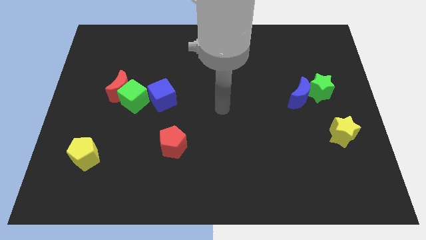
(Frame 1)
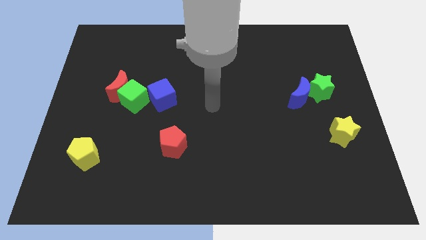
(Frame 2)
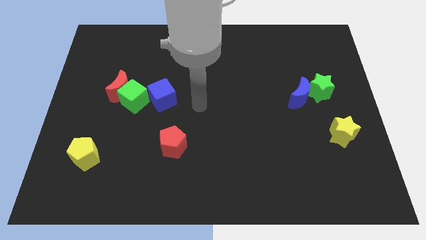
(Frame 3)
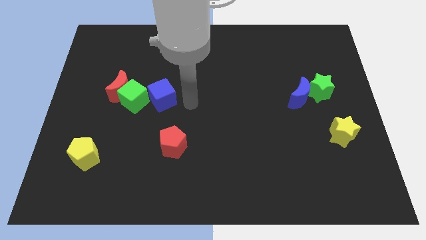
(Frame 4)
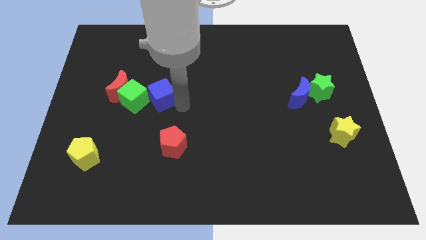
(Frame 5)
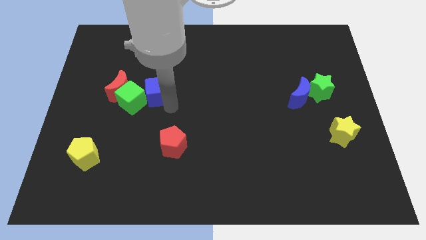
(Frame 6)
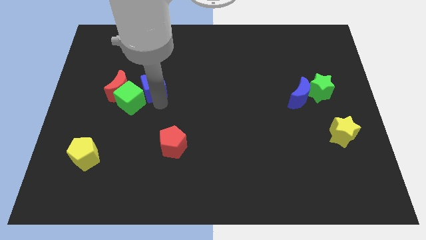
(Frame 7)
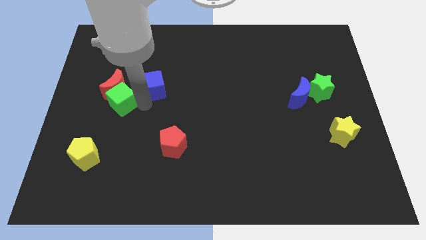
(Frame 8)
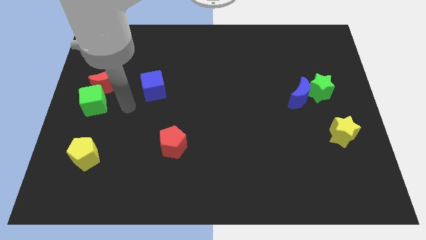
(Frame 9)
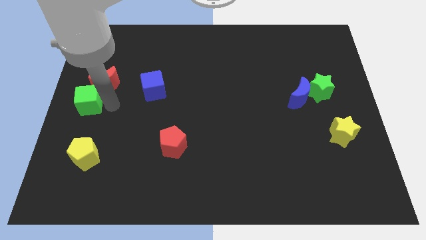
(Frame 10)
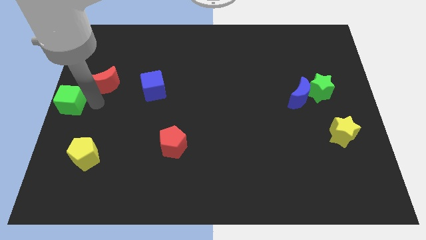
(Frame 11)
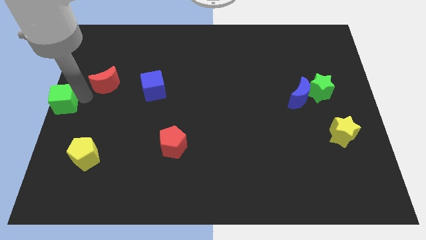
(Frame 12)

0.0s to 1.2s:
pull the red moon apart from the green cube

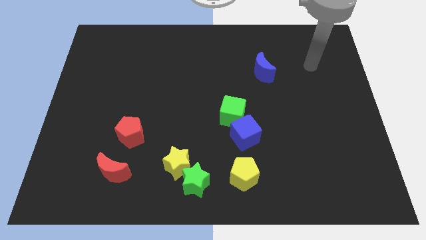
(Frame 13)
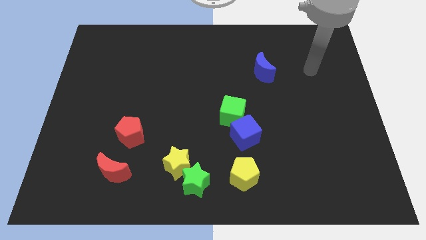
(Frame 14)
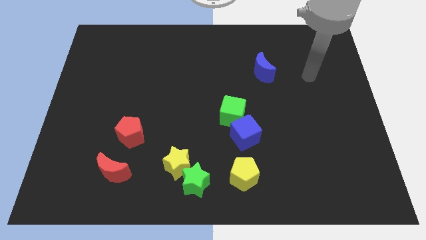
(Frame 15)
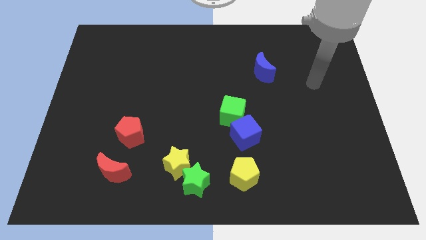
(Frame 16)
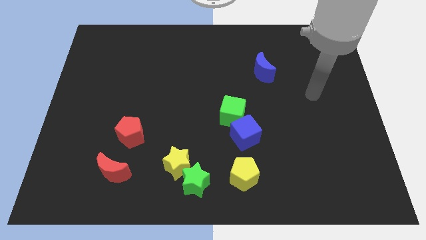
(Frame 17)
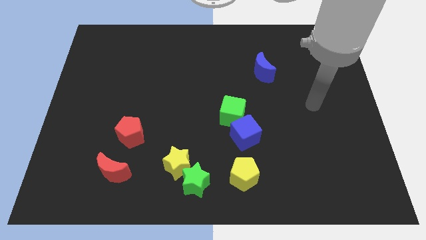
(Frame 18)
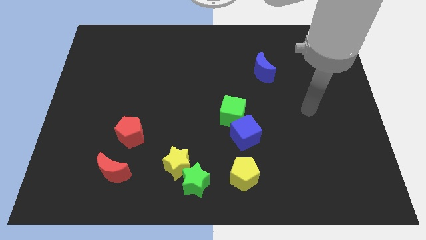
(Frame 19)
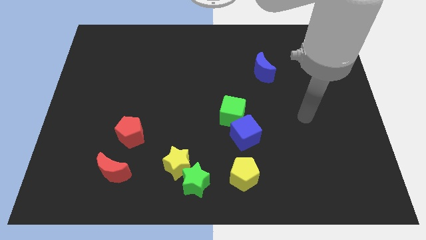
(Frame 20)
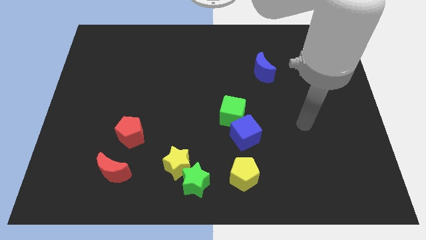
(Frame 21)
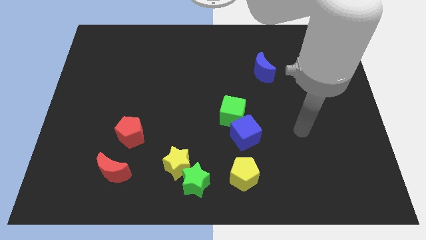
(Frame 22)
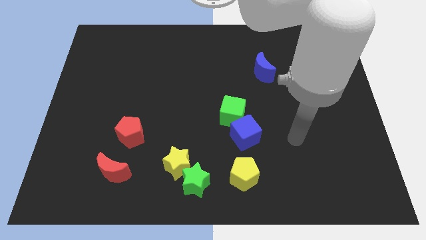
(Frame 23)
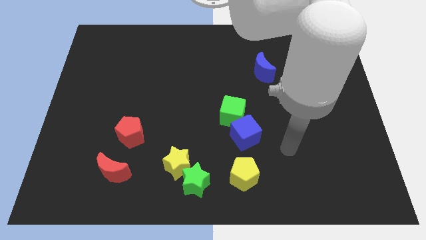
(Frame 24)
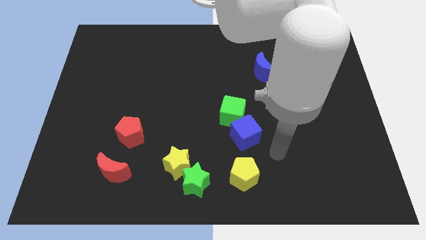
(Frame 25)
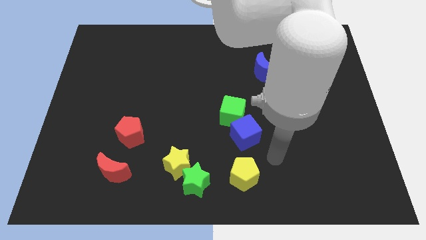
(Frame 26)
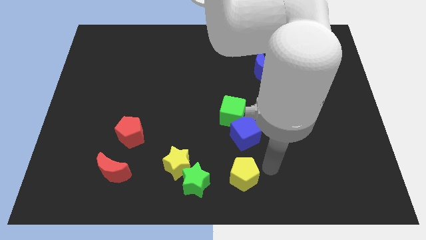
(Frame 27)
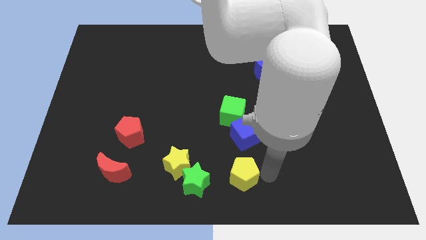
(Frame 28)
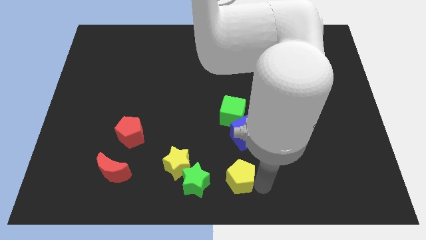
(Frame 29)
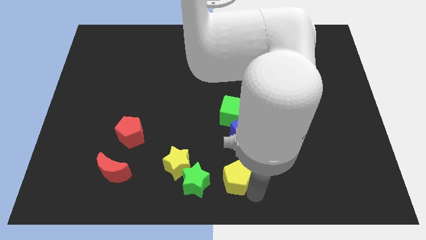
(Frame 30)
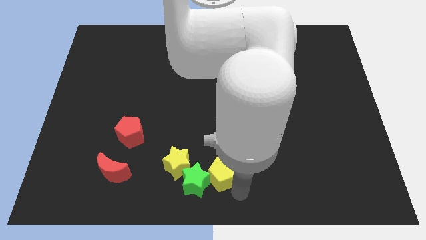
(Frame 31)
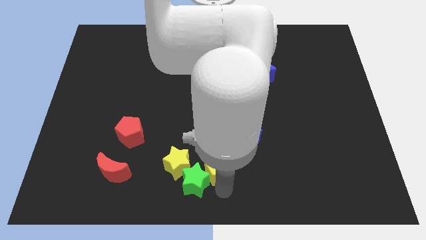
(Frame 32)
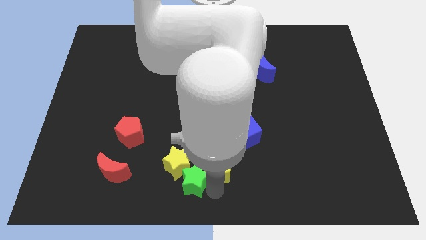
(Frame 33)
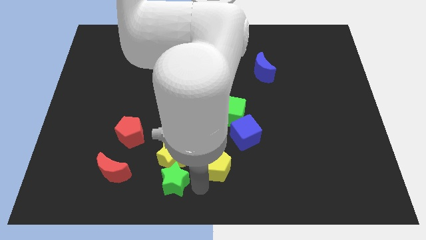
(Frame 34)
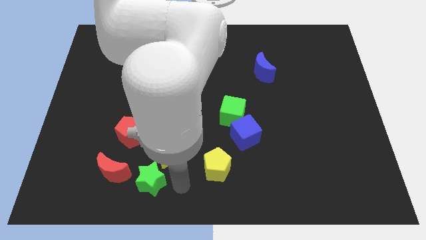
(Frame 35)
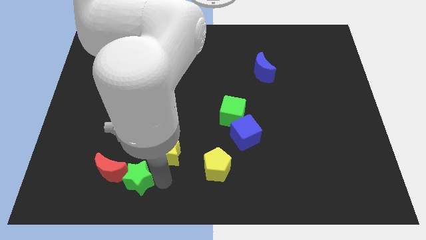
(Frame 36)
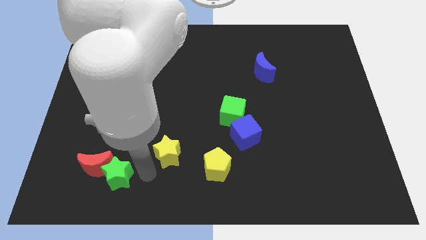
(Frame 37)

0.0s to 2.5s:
separate the yellow star from the green star

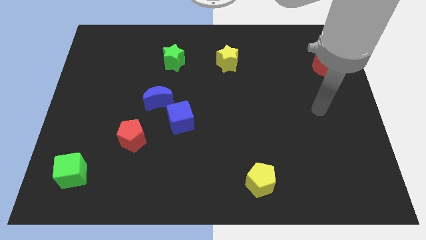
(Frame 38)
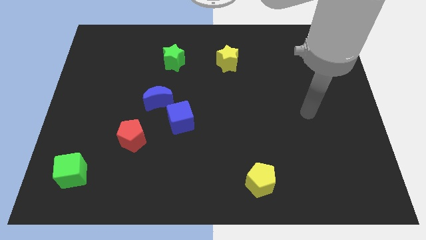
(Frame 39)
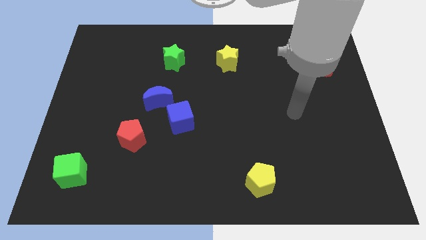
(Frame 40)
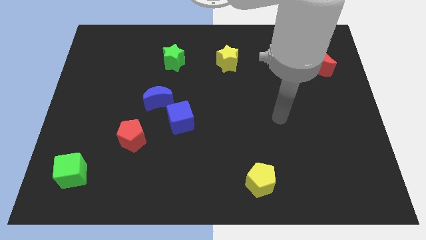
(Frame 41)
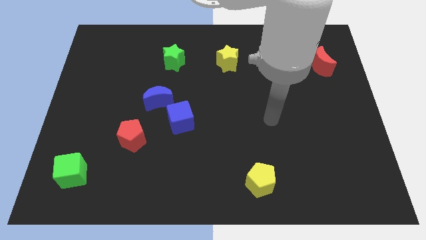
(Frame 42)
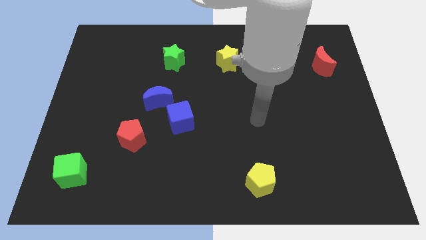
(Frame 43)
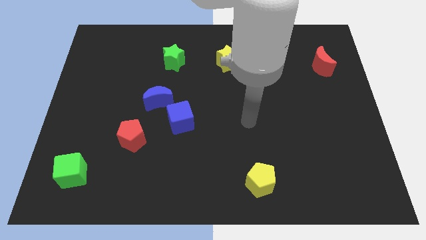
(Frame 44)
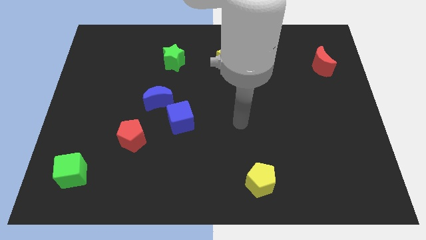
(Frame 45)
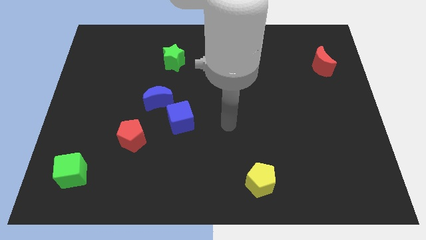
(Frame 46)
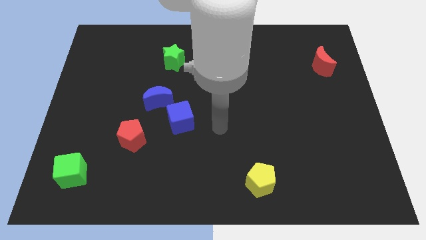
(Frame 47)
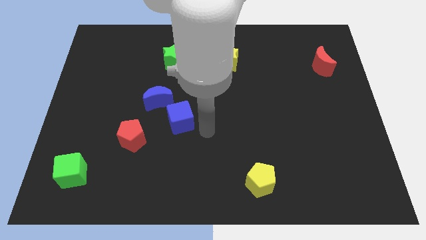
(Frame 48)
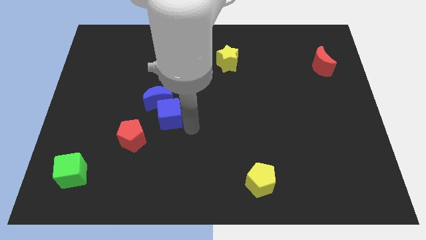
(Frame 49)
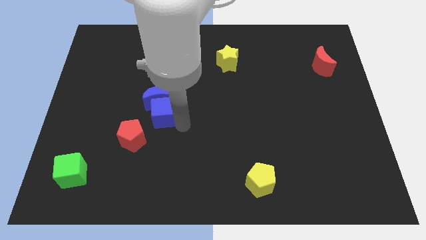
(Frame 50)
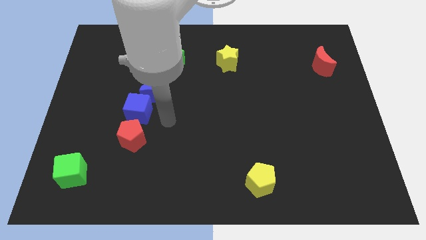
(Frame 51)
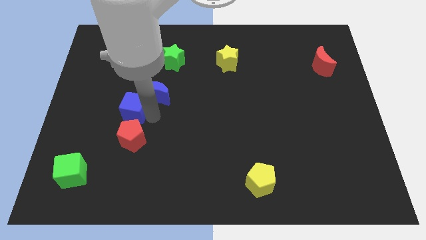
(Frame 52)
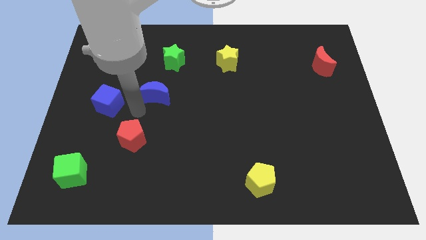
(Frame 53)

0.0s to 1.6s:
separate the blue moon from the blue cube

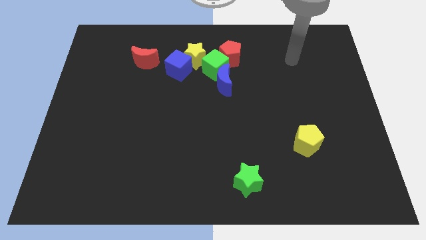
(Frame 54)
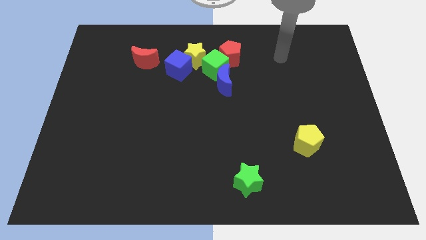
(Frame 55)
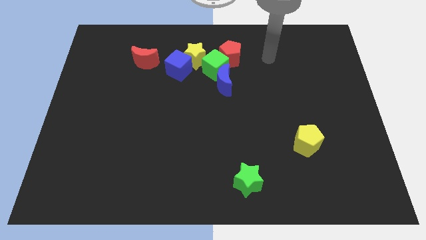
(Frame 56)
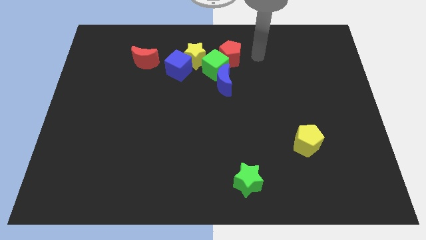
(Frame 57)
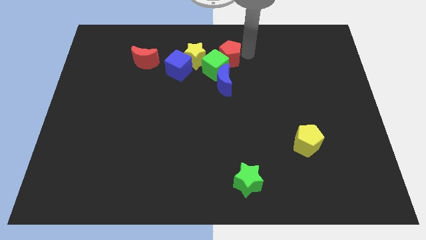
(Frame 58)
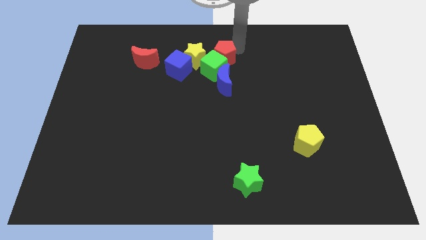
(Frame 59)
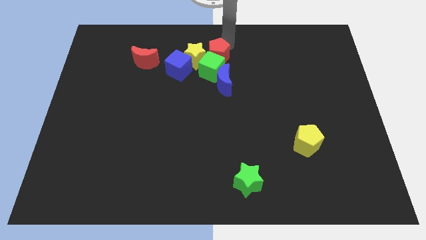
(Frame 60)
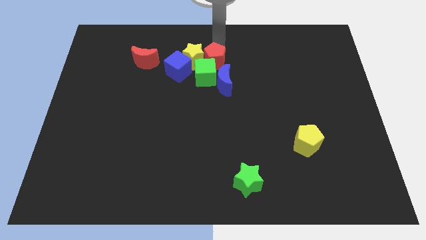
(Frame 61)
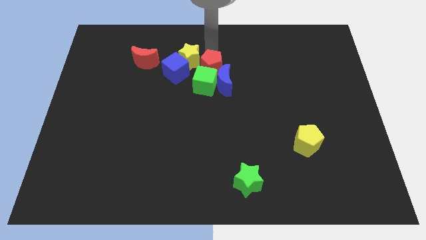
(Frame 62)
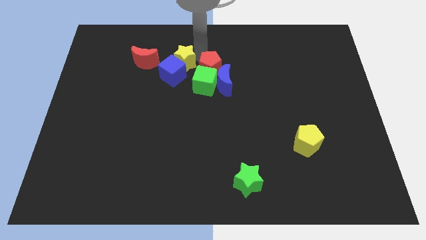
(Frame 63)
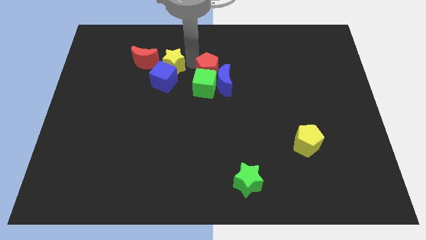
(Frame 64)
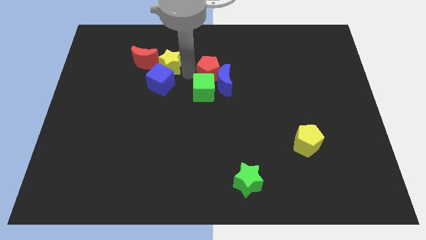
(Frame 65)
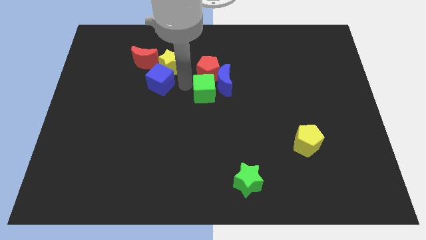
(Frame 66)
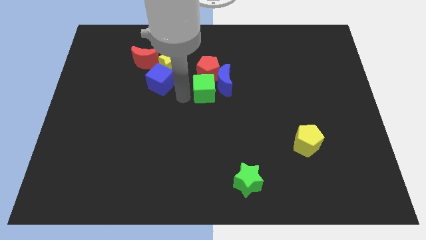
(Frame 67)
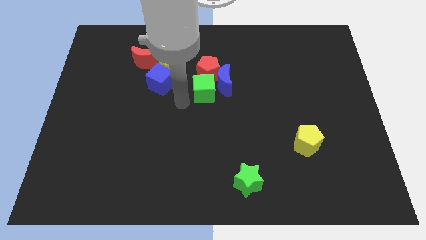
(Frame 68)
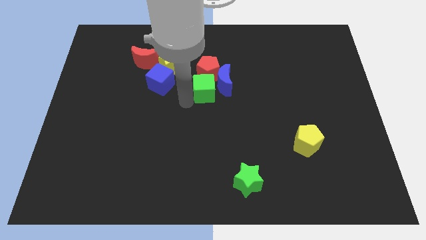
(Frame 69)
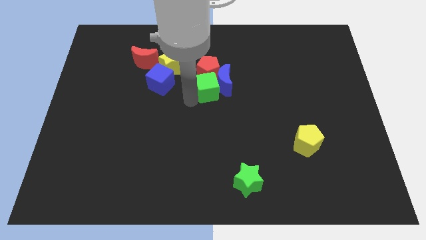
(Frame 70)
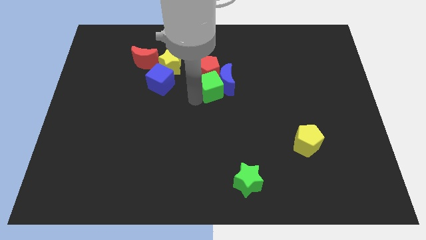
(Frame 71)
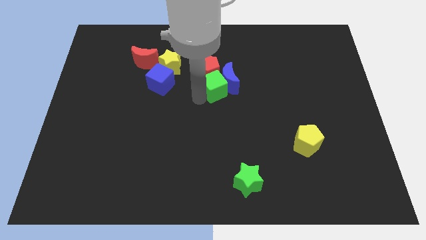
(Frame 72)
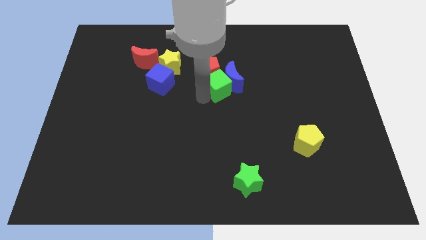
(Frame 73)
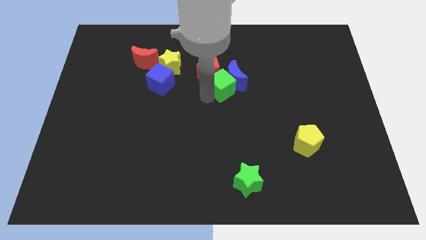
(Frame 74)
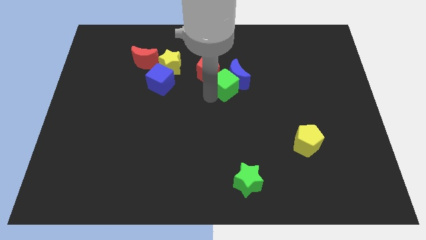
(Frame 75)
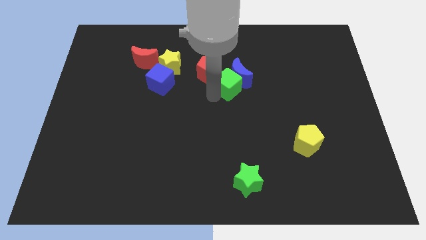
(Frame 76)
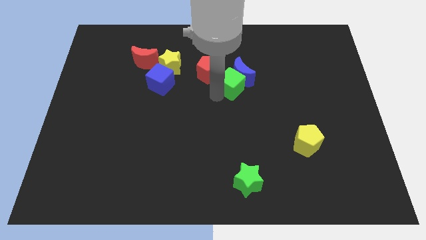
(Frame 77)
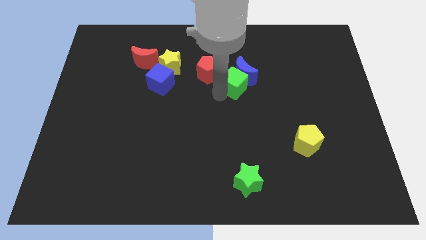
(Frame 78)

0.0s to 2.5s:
separate the green cube from the group

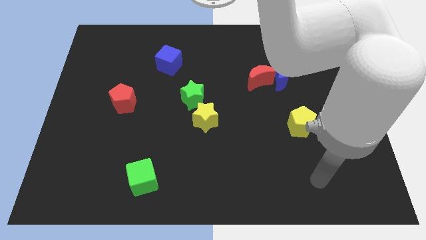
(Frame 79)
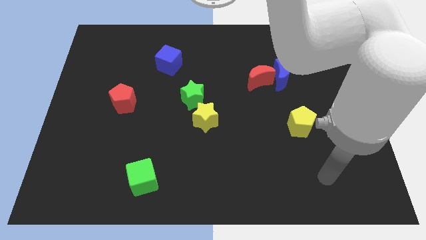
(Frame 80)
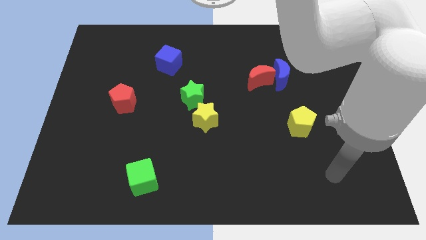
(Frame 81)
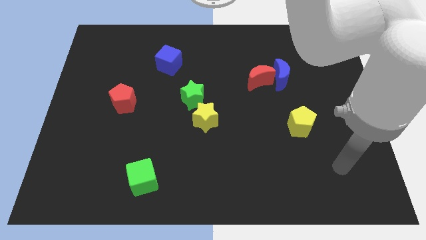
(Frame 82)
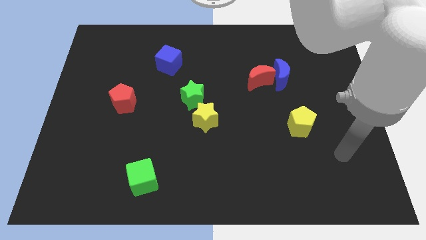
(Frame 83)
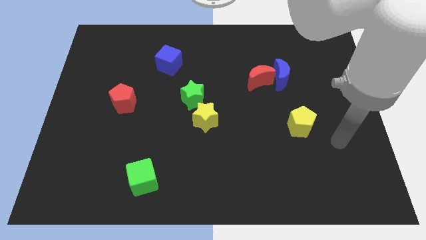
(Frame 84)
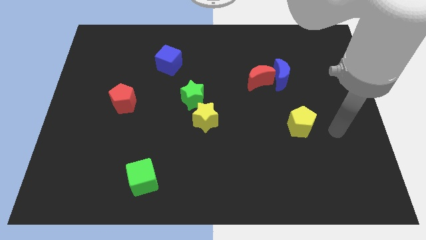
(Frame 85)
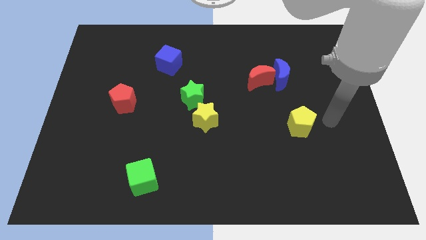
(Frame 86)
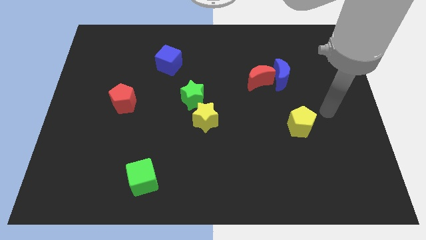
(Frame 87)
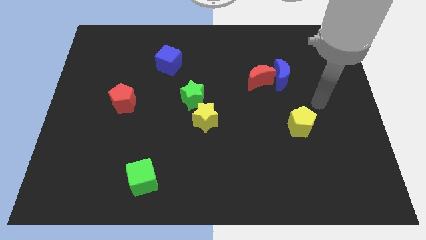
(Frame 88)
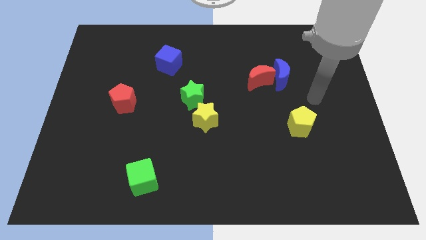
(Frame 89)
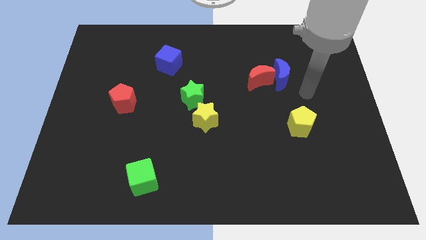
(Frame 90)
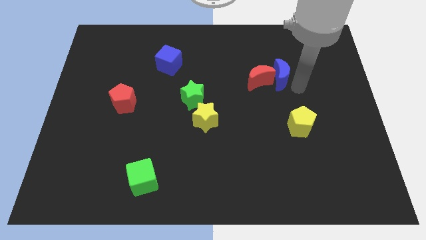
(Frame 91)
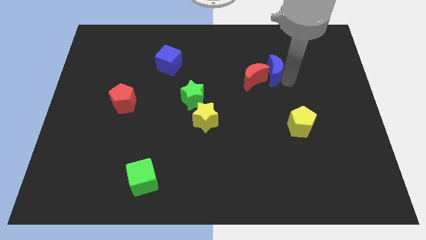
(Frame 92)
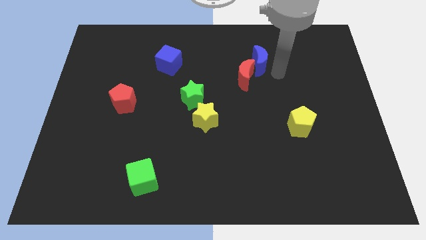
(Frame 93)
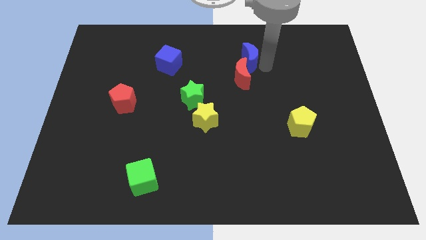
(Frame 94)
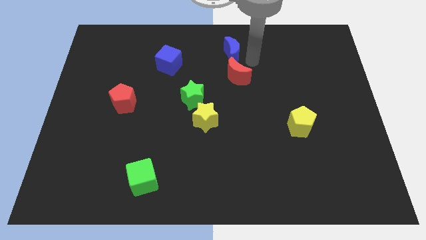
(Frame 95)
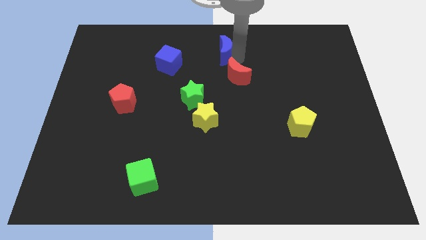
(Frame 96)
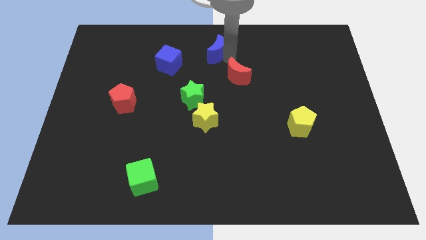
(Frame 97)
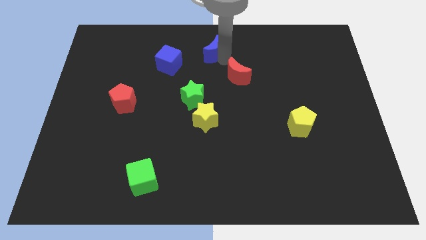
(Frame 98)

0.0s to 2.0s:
move the red moon away from the blue moon
